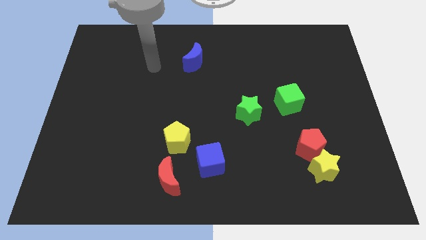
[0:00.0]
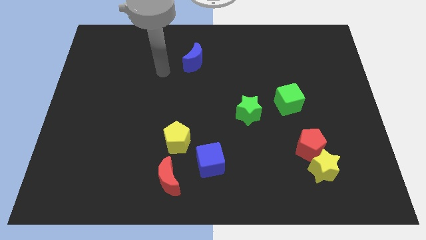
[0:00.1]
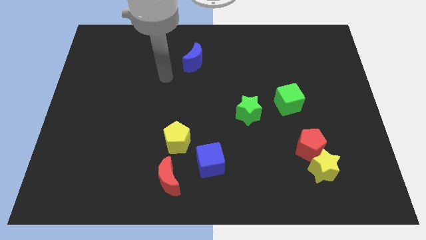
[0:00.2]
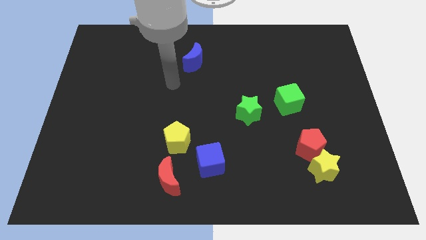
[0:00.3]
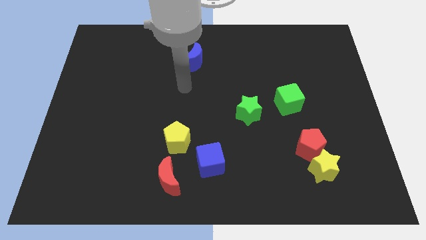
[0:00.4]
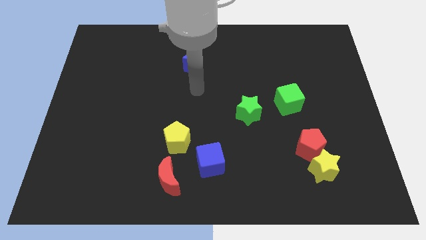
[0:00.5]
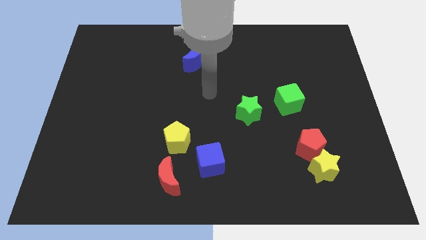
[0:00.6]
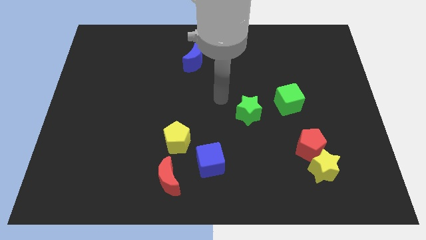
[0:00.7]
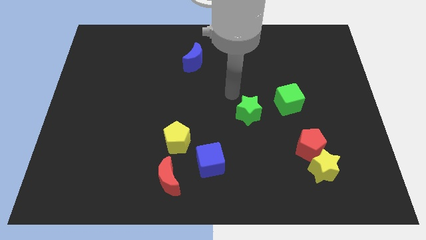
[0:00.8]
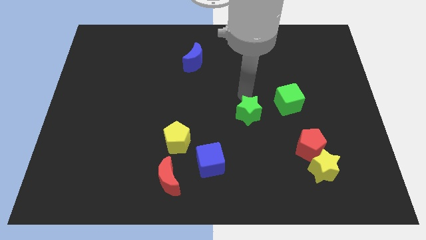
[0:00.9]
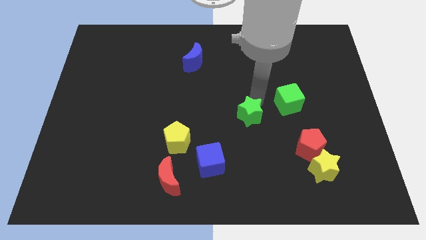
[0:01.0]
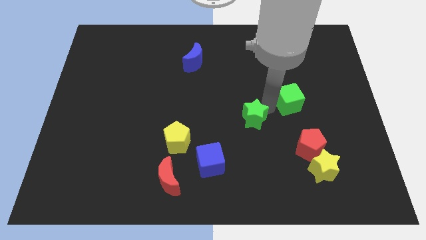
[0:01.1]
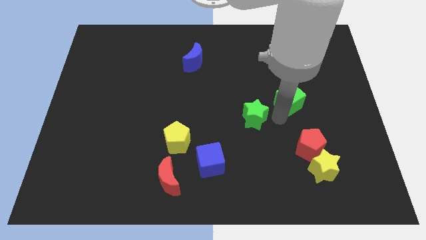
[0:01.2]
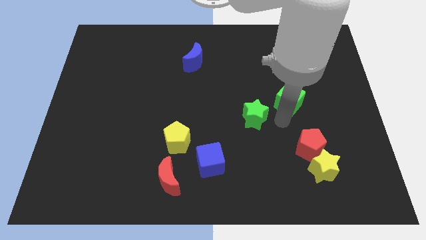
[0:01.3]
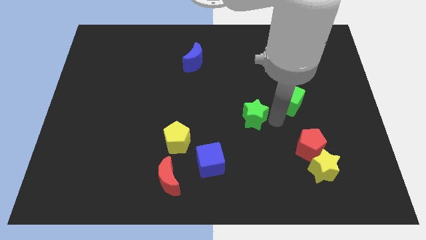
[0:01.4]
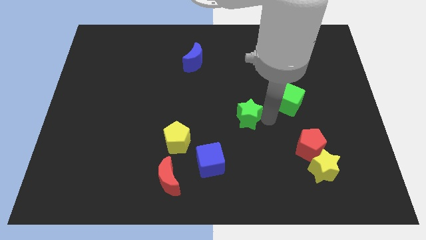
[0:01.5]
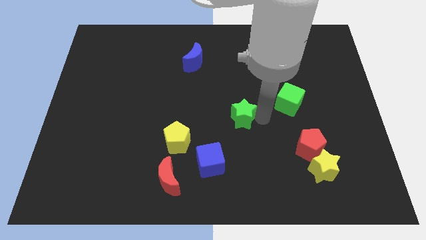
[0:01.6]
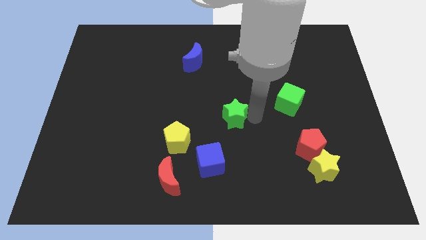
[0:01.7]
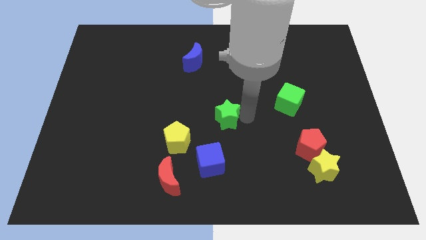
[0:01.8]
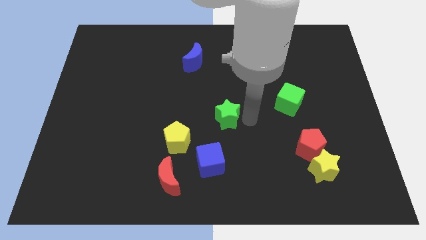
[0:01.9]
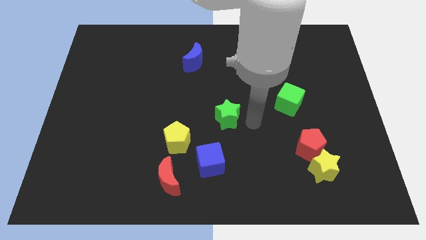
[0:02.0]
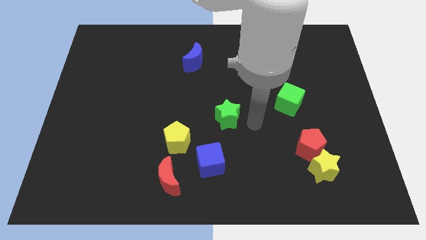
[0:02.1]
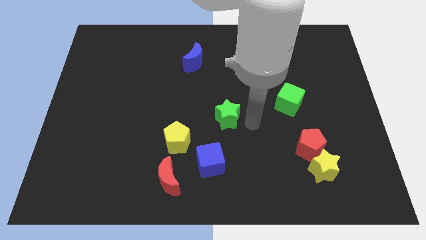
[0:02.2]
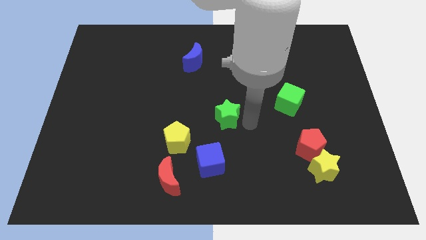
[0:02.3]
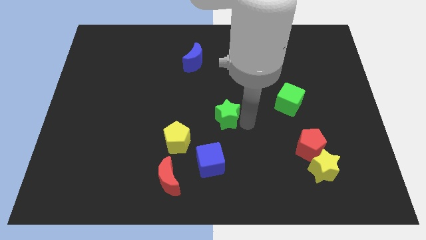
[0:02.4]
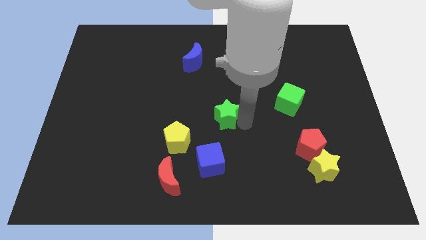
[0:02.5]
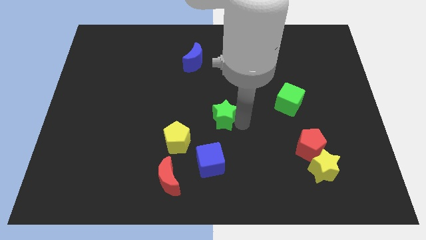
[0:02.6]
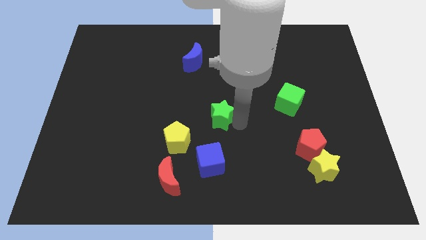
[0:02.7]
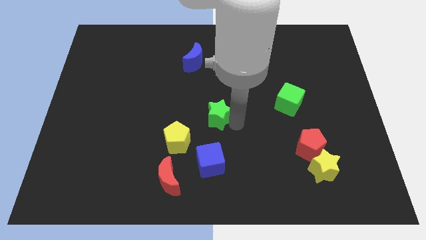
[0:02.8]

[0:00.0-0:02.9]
move the green star a little to the left

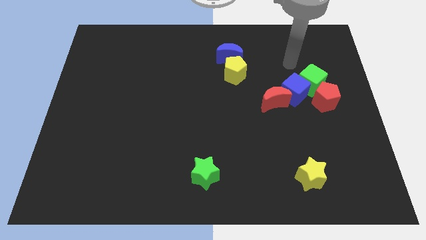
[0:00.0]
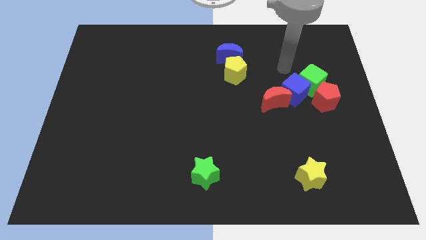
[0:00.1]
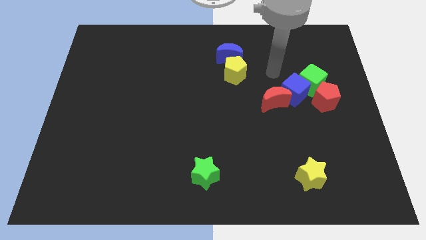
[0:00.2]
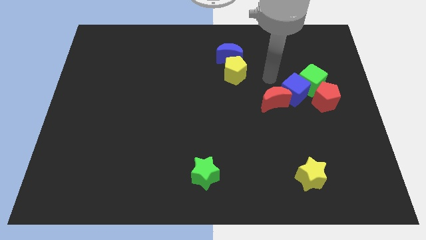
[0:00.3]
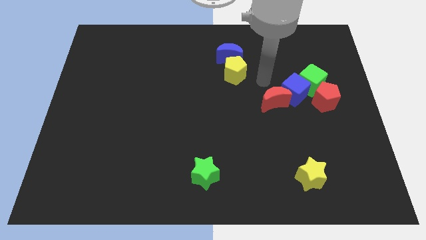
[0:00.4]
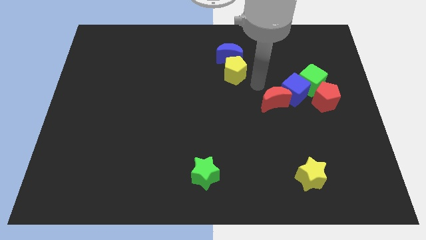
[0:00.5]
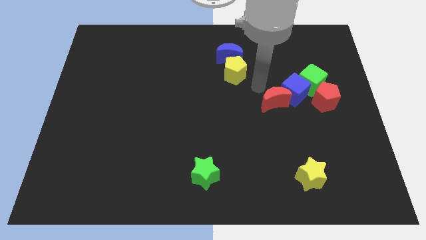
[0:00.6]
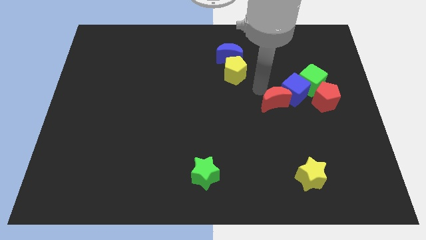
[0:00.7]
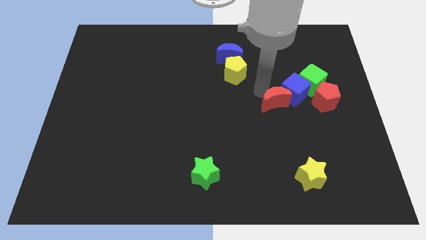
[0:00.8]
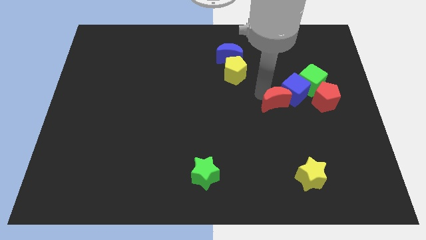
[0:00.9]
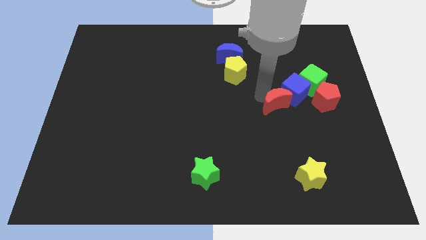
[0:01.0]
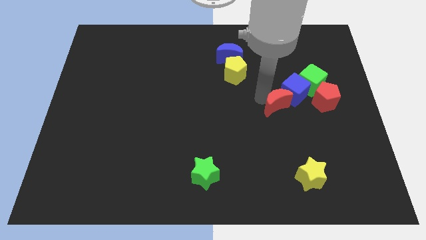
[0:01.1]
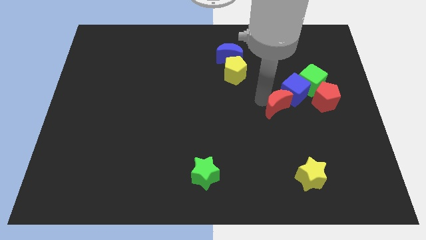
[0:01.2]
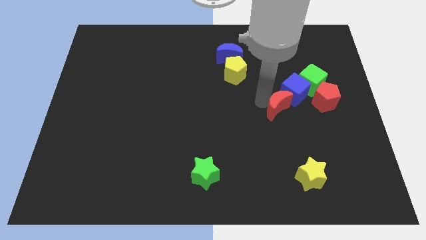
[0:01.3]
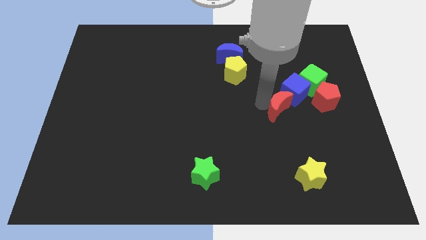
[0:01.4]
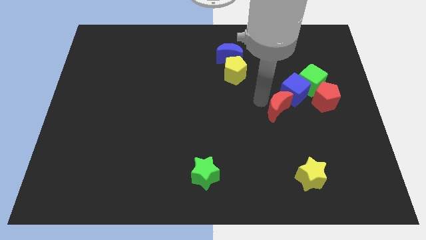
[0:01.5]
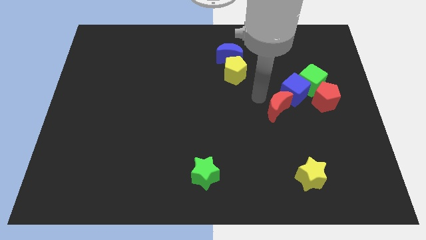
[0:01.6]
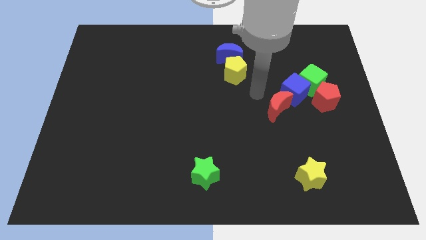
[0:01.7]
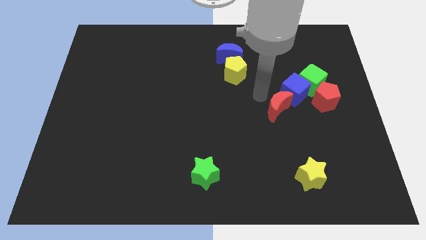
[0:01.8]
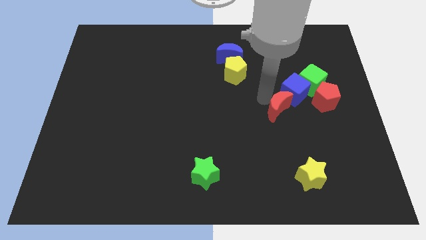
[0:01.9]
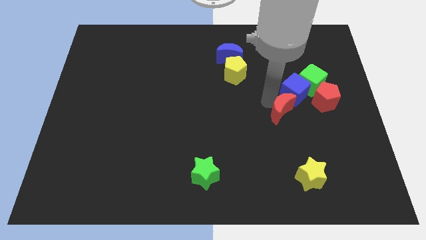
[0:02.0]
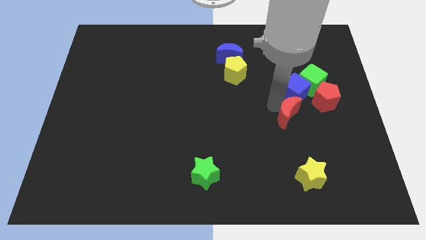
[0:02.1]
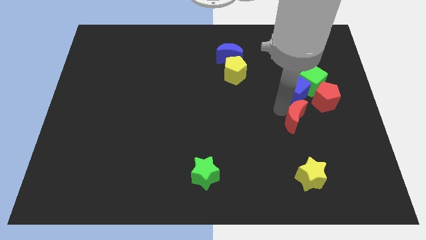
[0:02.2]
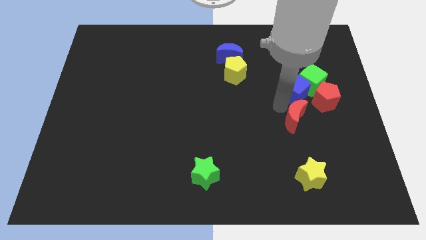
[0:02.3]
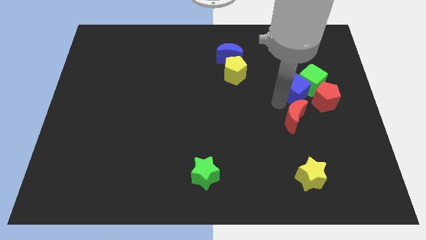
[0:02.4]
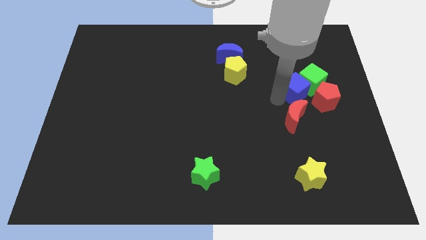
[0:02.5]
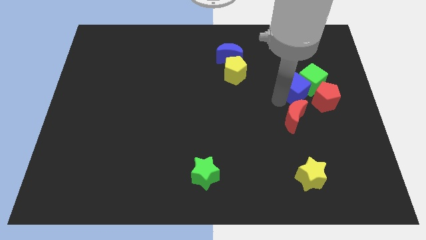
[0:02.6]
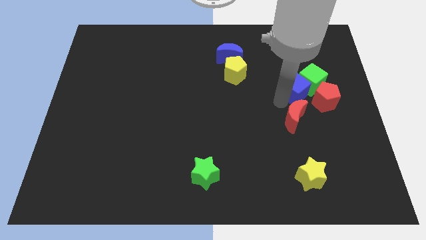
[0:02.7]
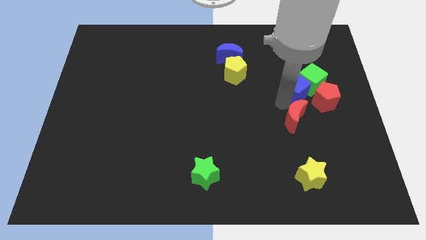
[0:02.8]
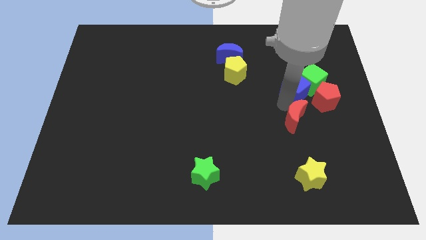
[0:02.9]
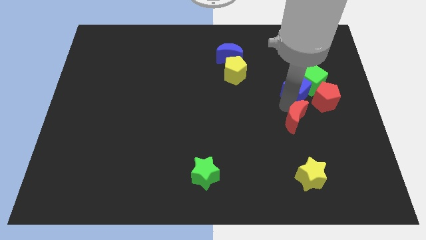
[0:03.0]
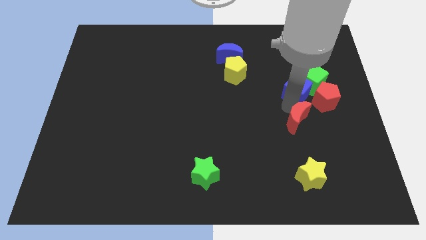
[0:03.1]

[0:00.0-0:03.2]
slightly slide the red moon down and then to the right

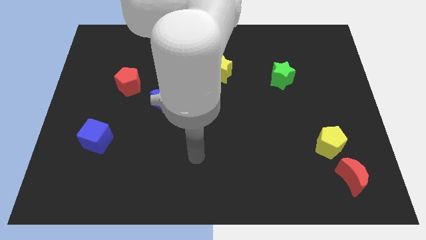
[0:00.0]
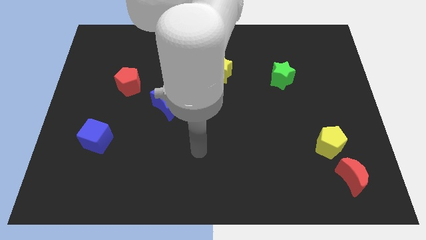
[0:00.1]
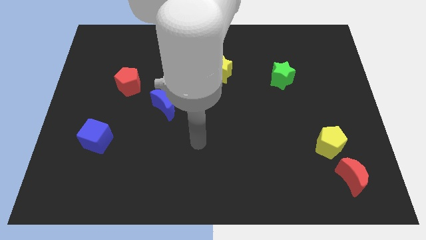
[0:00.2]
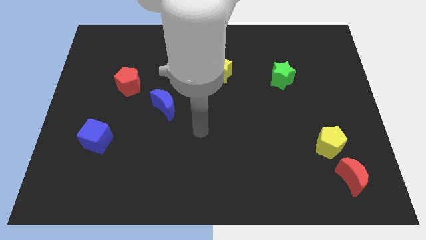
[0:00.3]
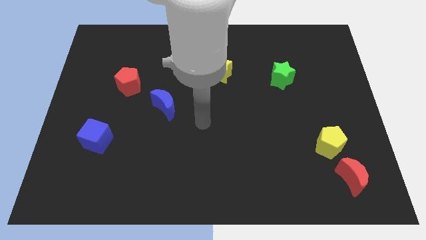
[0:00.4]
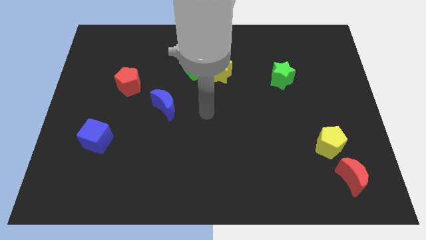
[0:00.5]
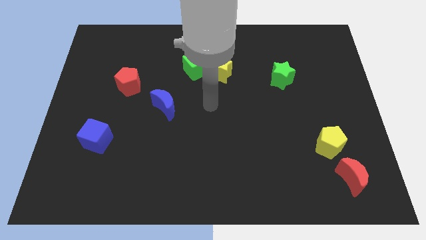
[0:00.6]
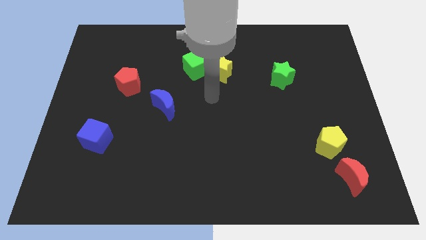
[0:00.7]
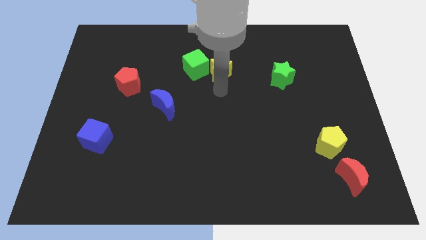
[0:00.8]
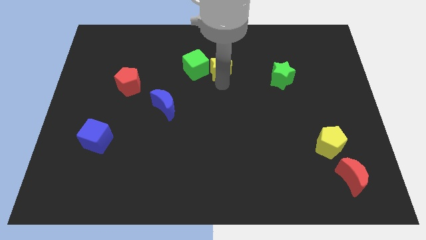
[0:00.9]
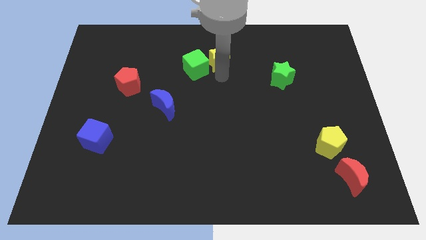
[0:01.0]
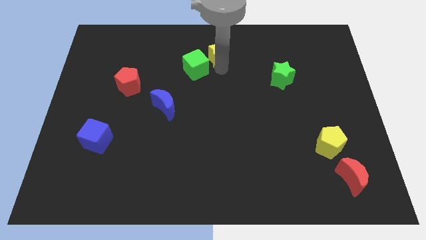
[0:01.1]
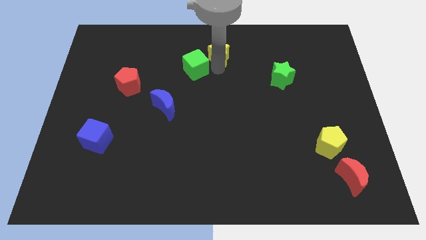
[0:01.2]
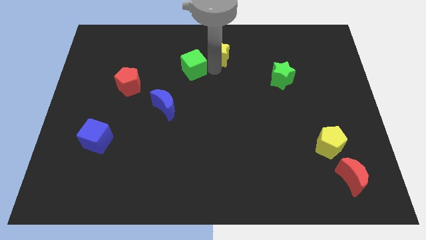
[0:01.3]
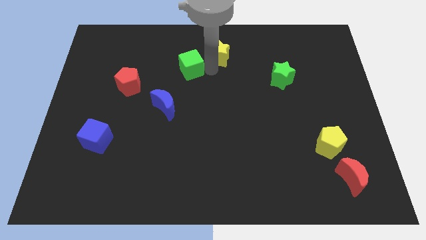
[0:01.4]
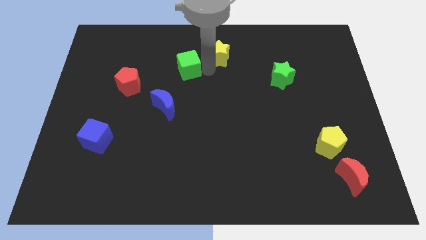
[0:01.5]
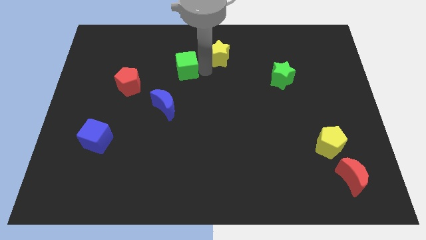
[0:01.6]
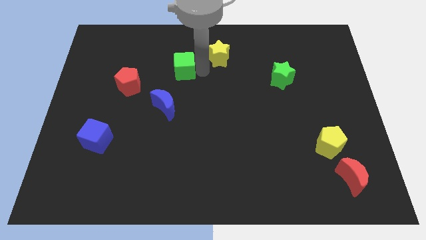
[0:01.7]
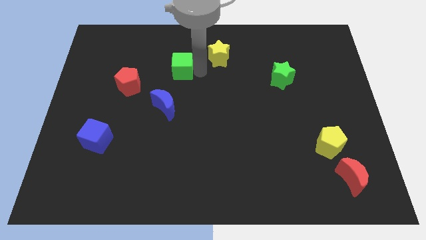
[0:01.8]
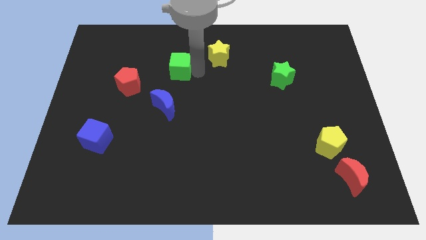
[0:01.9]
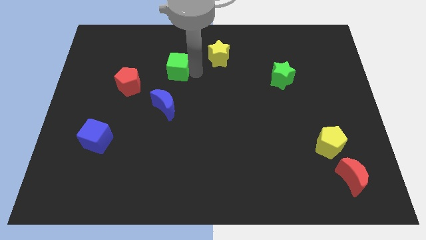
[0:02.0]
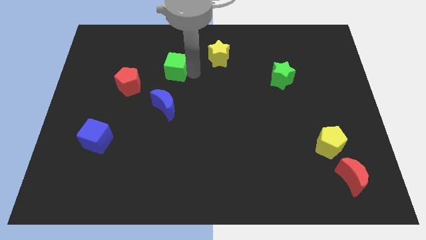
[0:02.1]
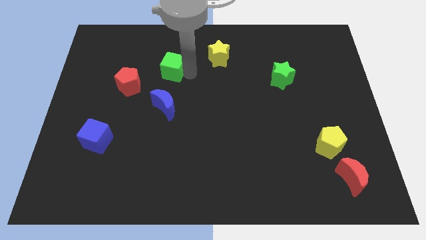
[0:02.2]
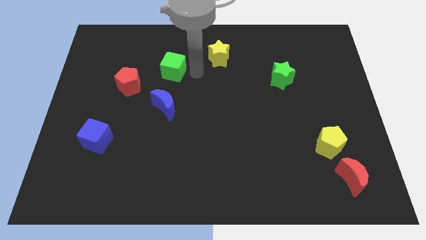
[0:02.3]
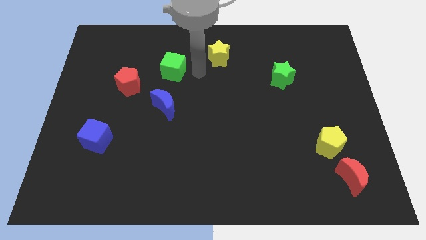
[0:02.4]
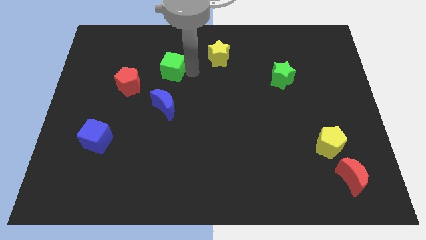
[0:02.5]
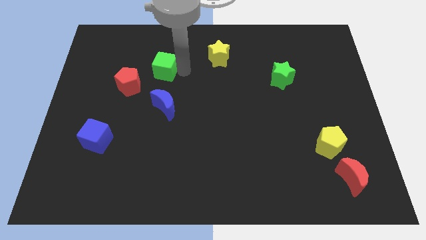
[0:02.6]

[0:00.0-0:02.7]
move the green cube a little bit to the left
